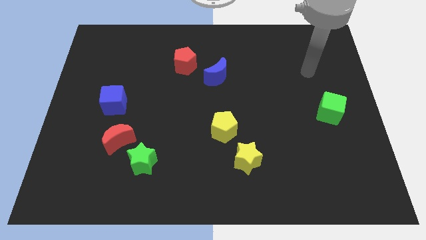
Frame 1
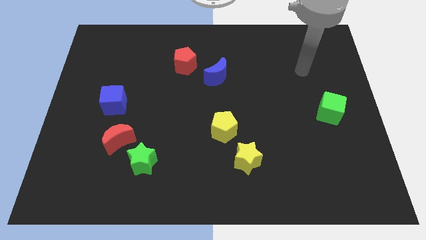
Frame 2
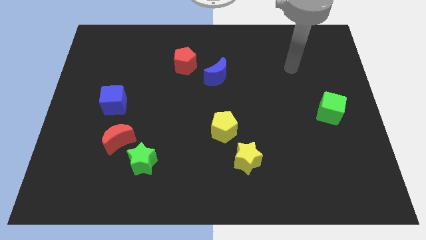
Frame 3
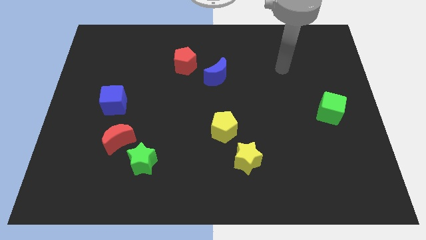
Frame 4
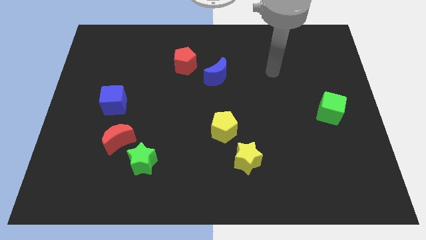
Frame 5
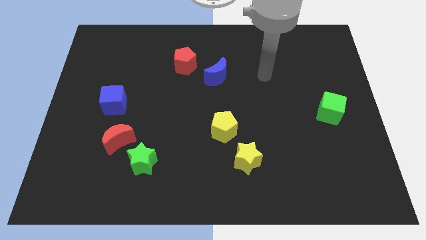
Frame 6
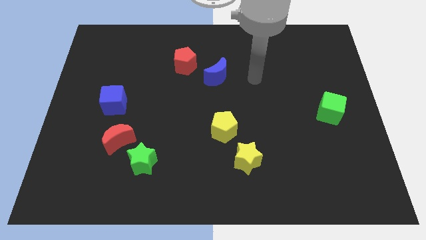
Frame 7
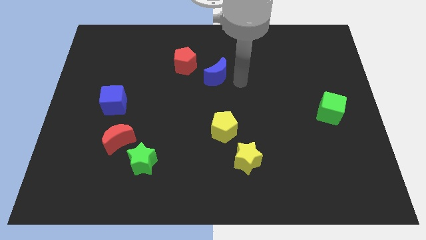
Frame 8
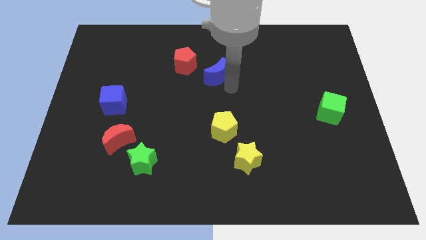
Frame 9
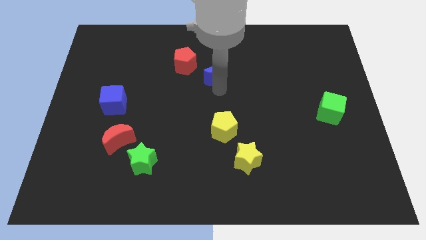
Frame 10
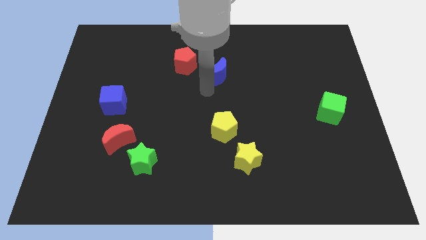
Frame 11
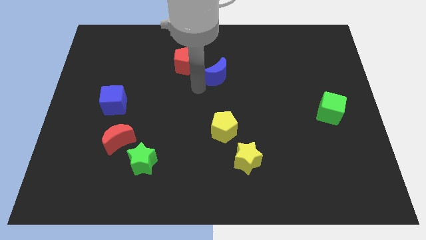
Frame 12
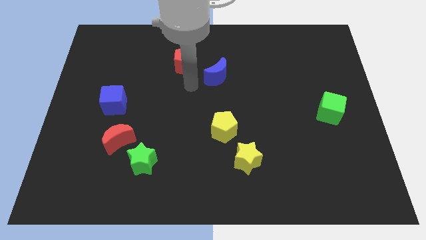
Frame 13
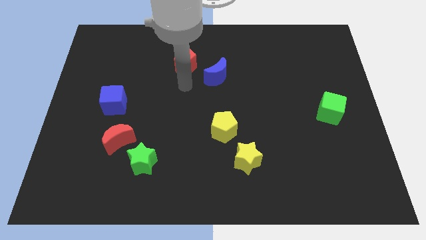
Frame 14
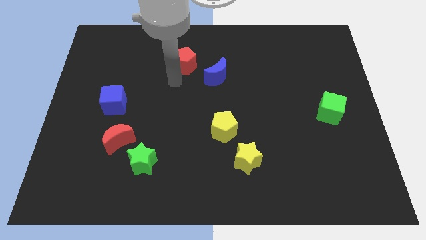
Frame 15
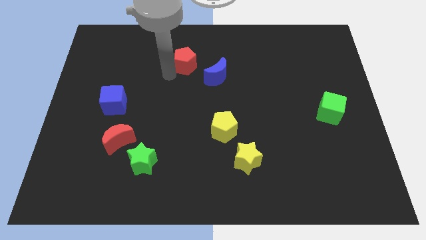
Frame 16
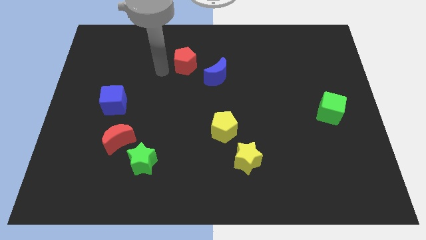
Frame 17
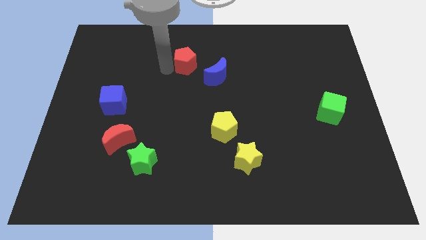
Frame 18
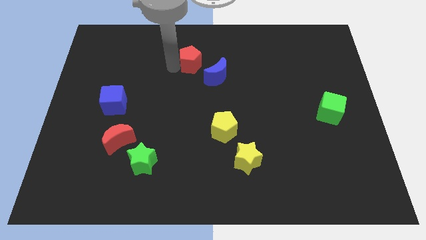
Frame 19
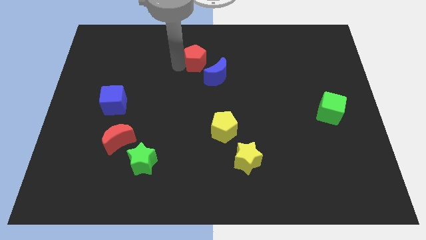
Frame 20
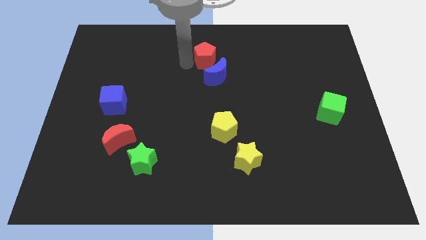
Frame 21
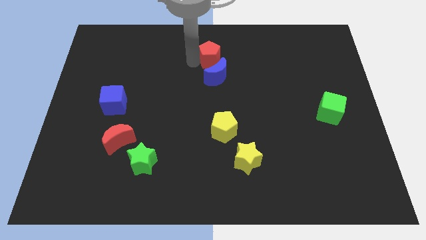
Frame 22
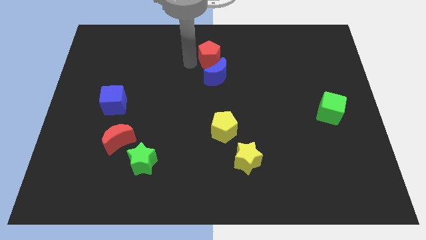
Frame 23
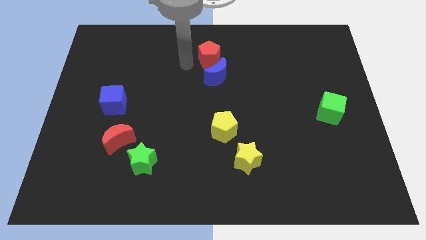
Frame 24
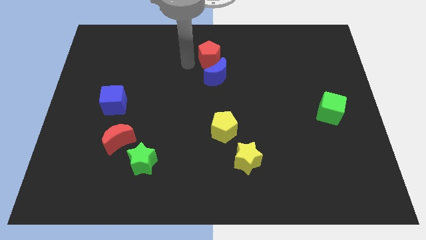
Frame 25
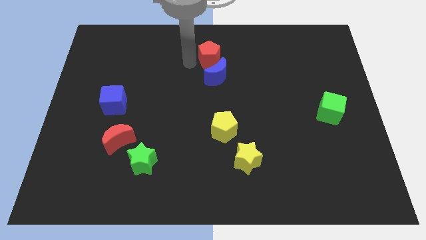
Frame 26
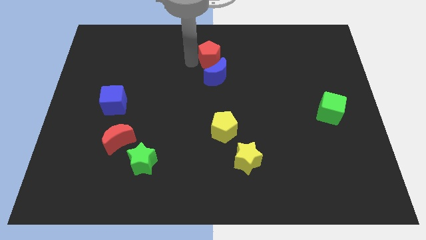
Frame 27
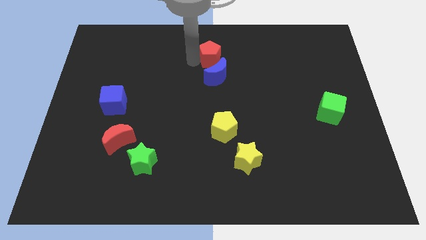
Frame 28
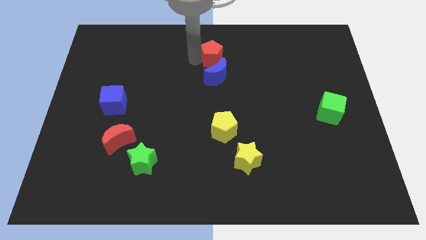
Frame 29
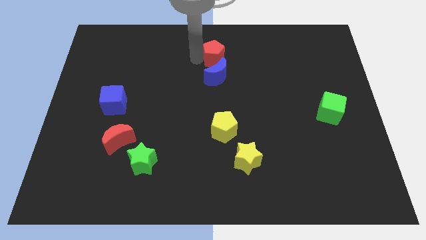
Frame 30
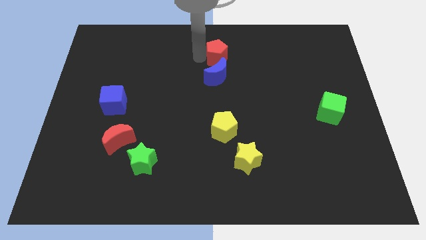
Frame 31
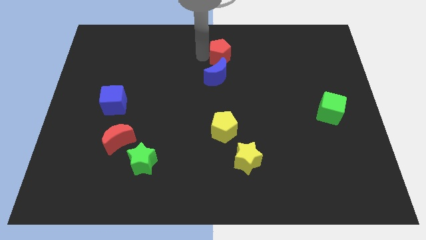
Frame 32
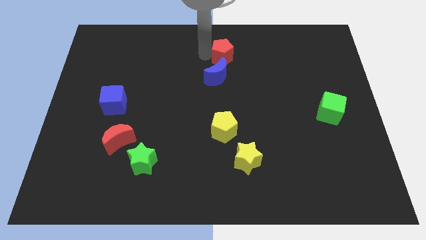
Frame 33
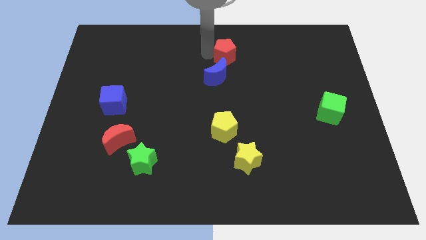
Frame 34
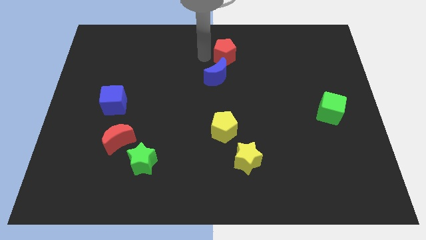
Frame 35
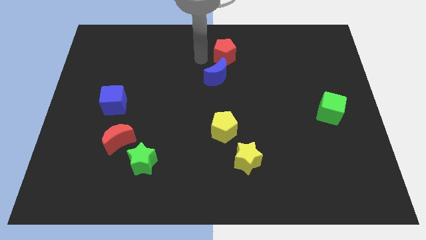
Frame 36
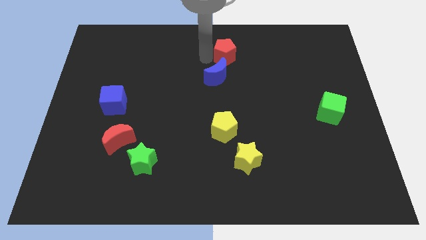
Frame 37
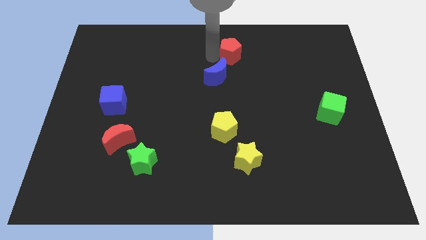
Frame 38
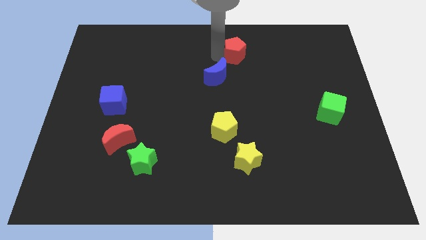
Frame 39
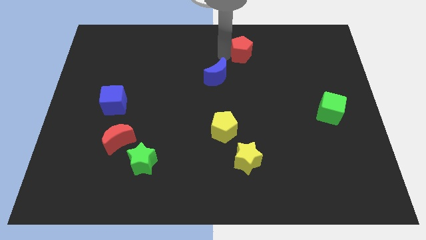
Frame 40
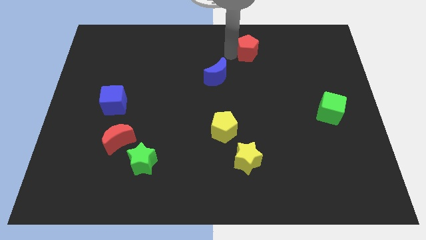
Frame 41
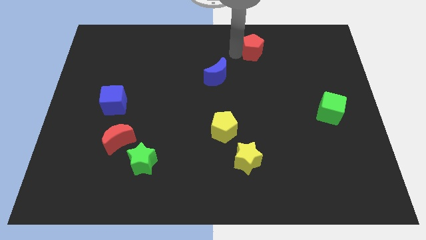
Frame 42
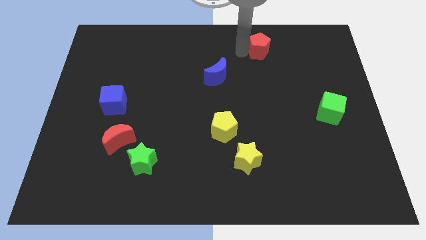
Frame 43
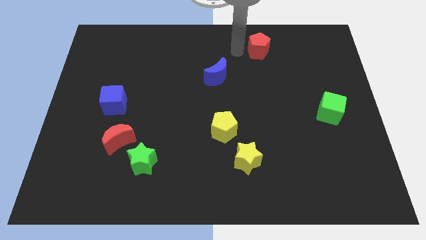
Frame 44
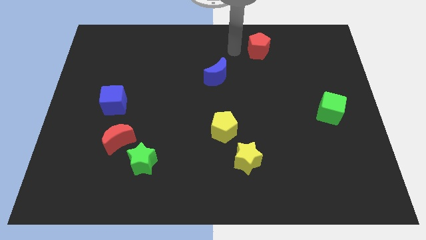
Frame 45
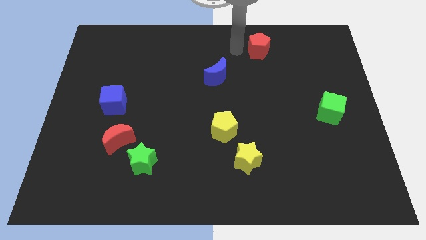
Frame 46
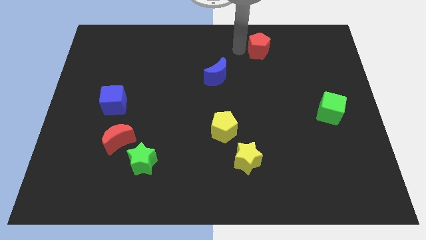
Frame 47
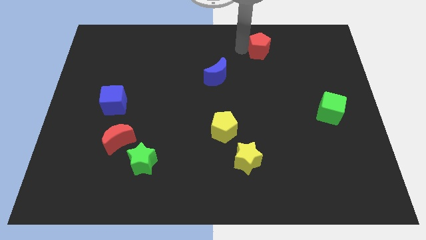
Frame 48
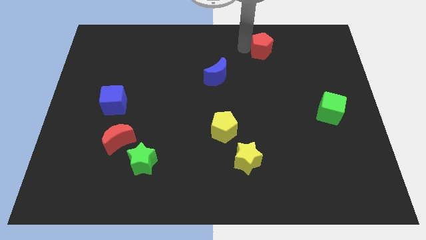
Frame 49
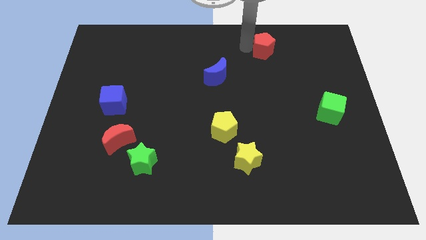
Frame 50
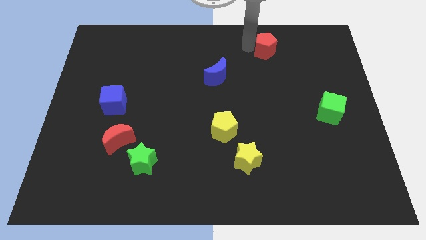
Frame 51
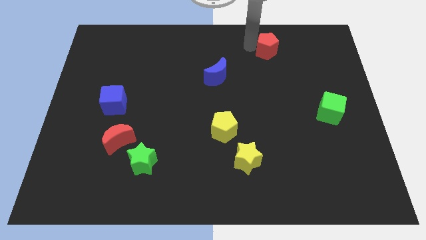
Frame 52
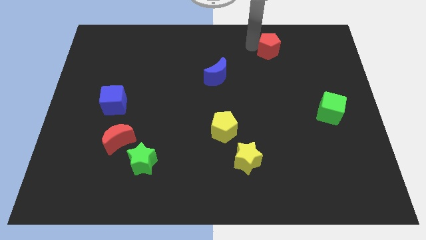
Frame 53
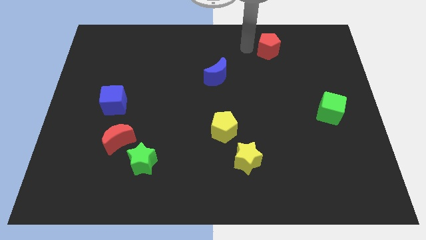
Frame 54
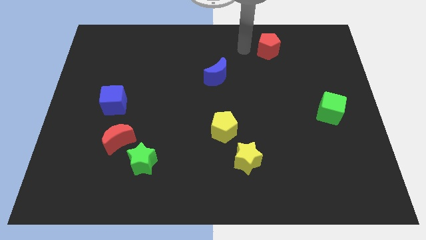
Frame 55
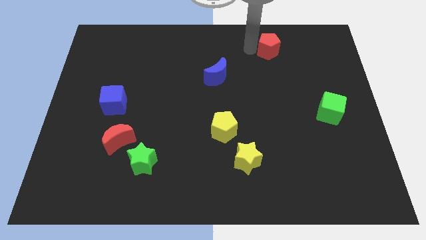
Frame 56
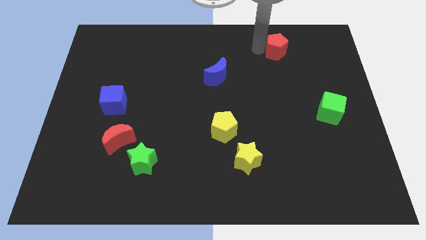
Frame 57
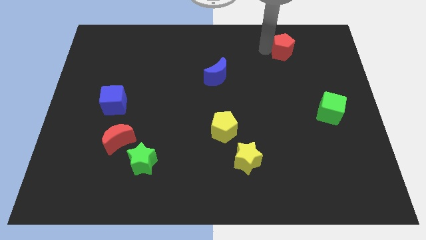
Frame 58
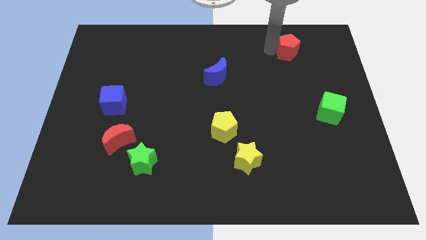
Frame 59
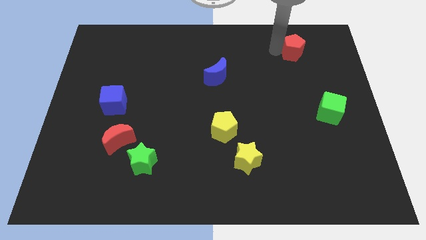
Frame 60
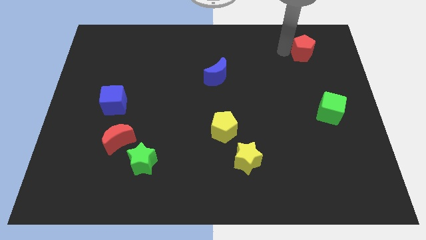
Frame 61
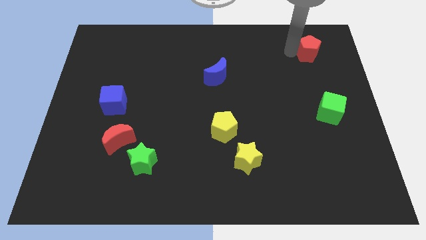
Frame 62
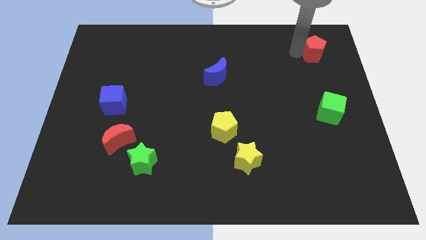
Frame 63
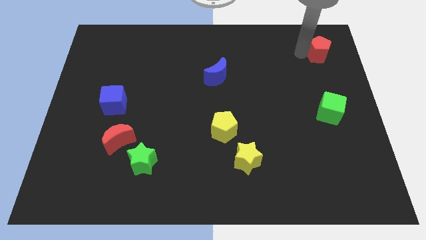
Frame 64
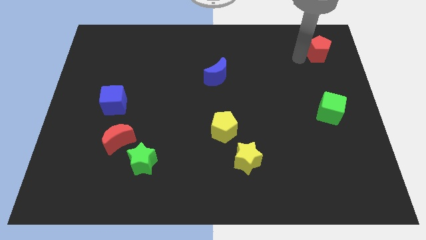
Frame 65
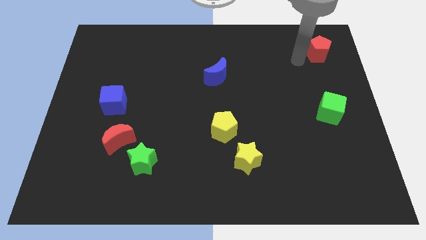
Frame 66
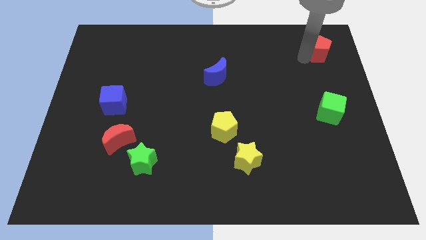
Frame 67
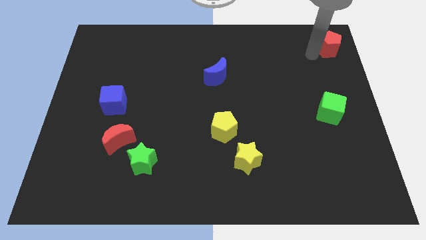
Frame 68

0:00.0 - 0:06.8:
put the red pentagon to the top right corner
